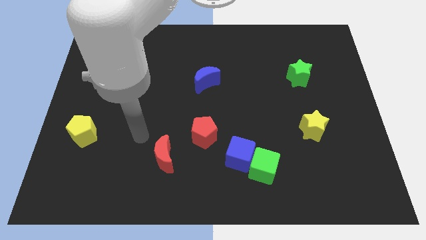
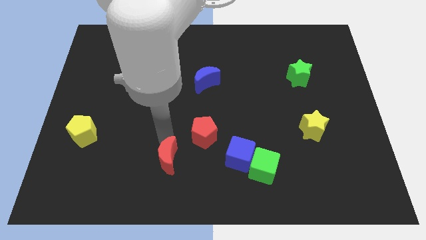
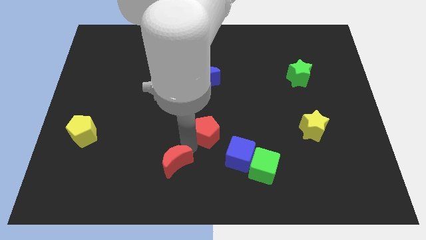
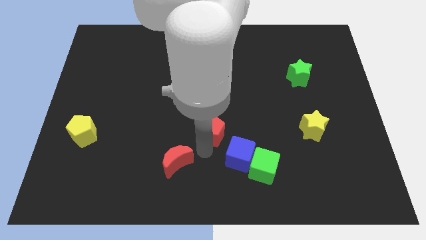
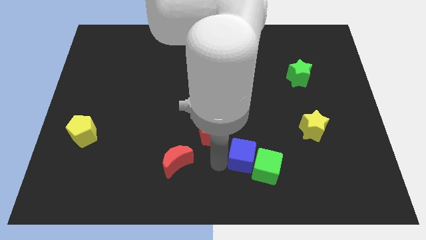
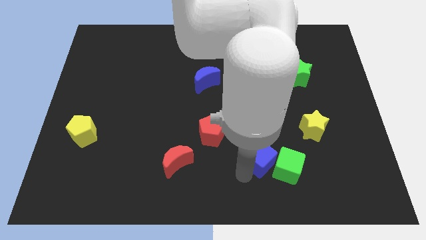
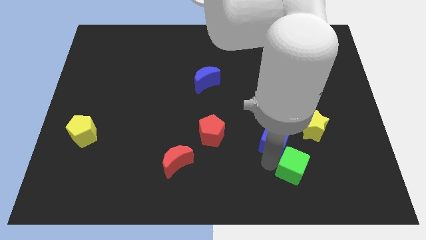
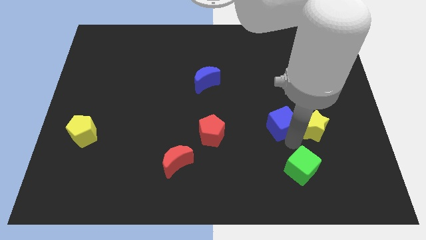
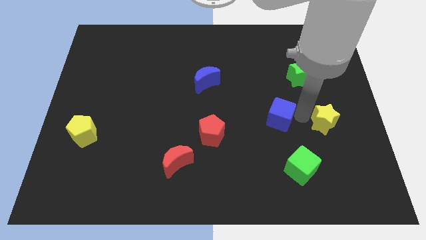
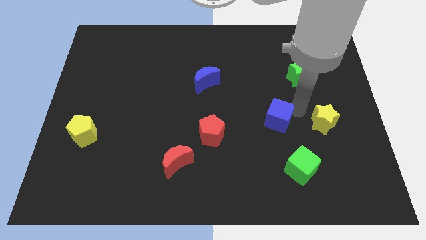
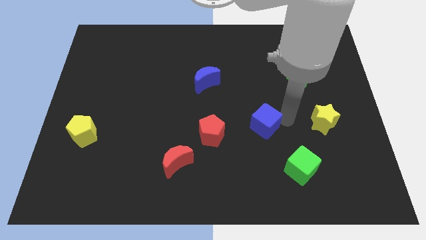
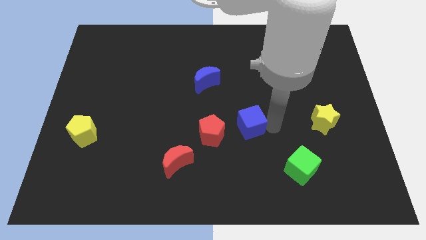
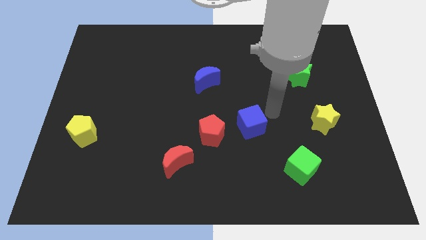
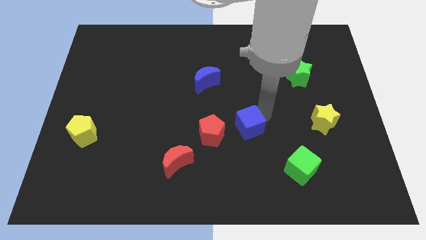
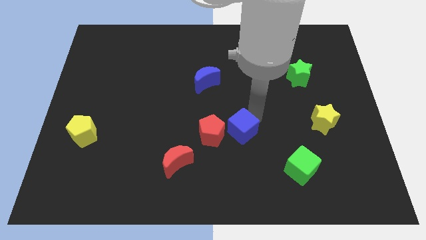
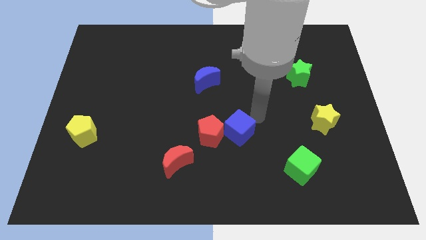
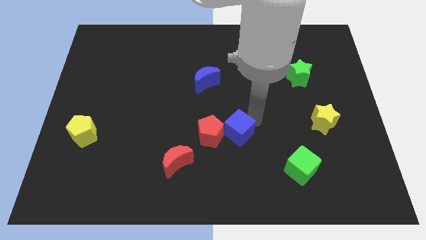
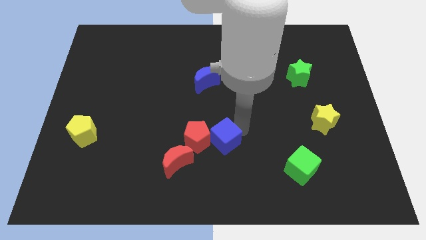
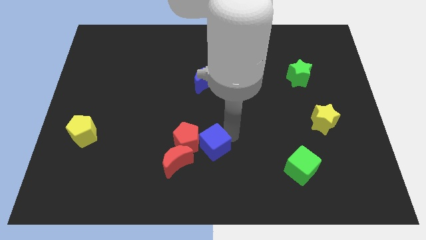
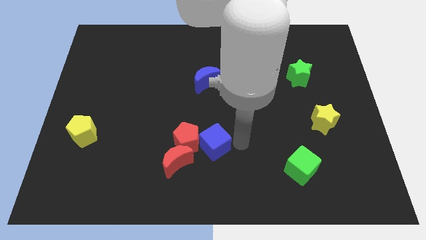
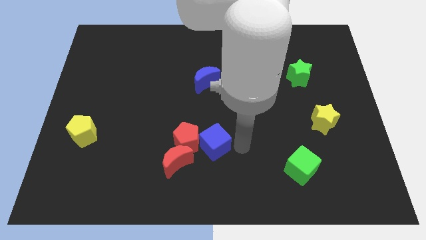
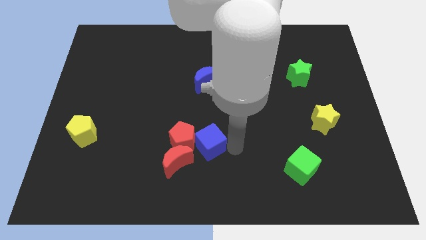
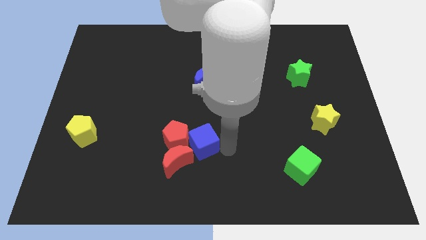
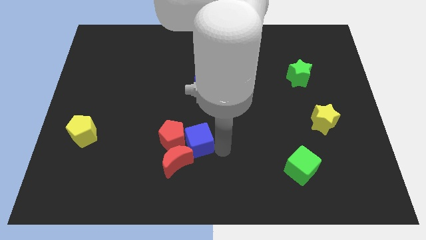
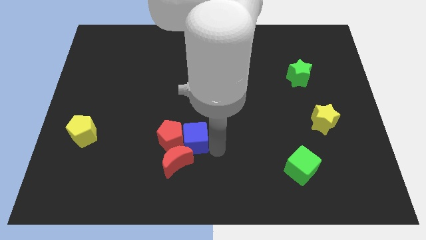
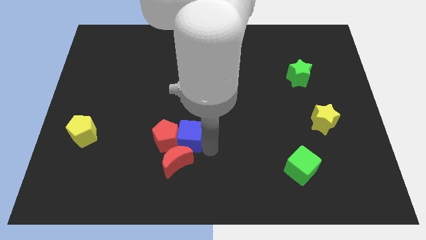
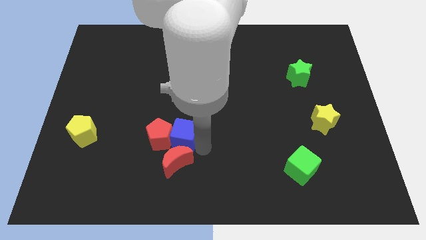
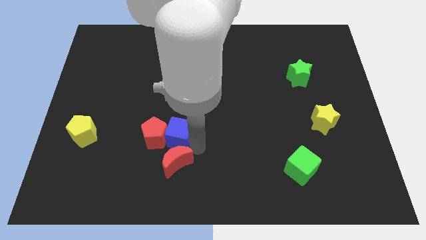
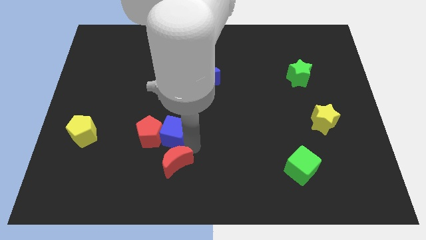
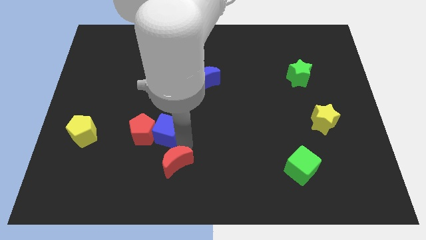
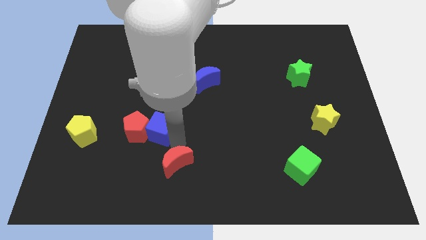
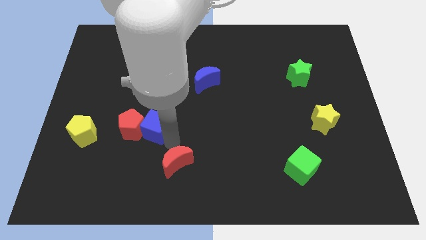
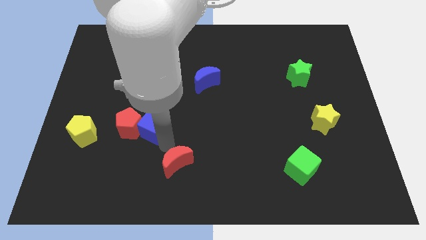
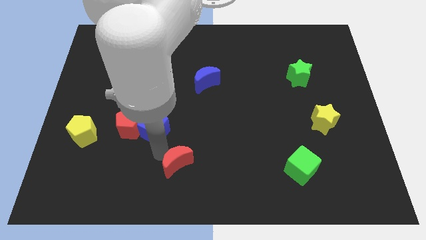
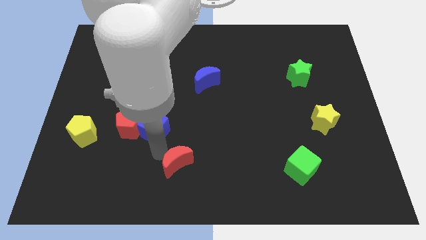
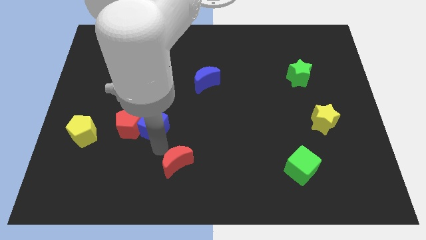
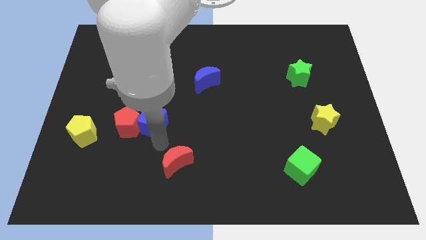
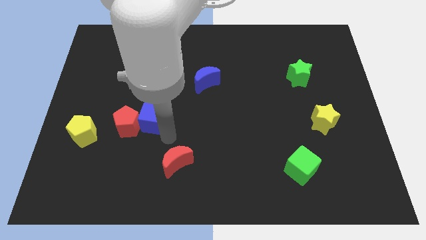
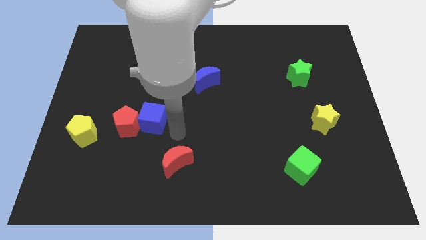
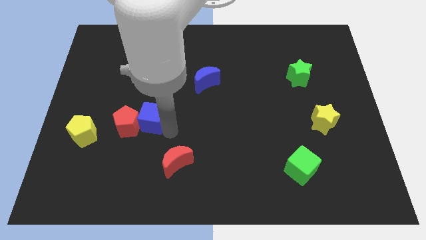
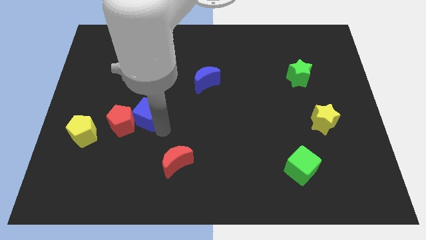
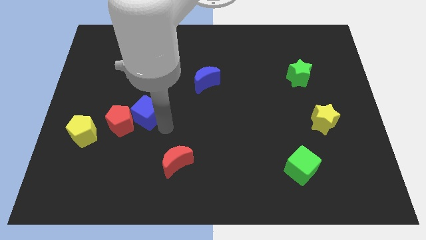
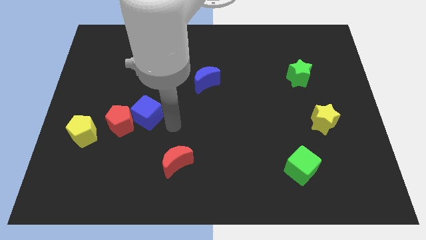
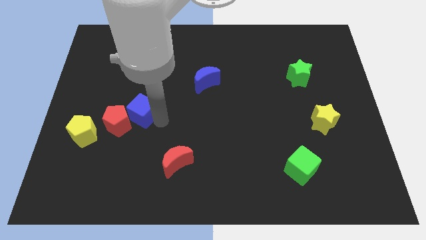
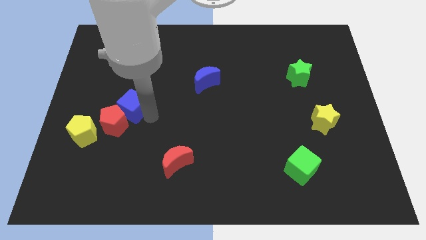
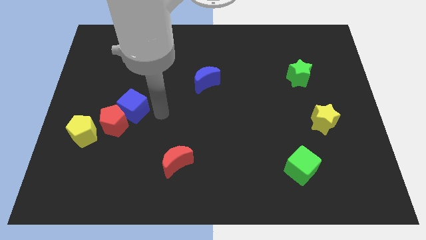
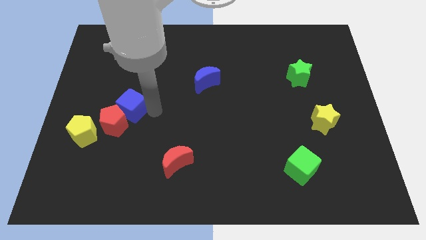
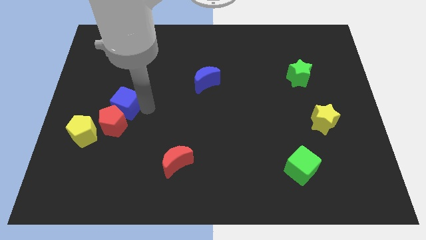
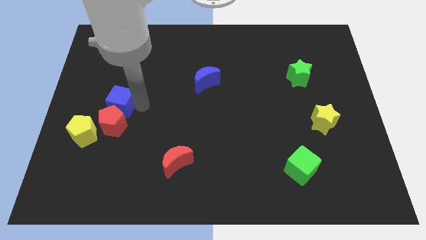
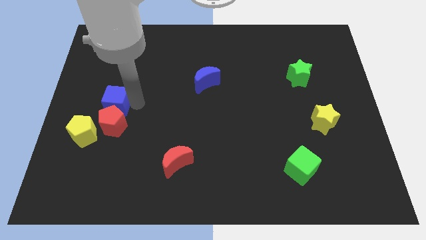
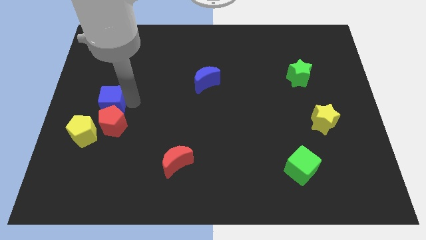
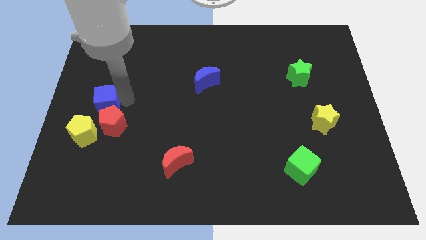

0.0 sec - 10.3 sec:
put the blue cube to the left side

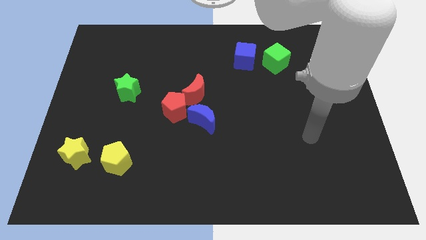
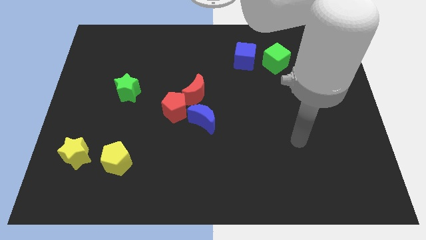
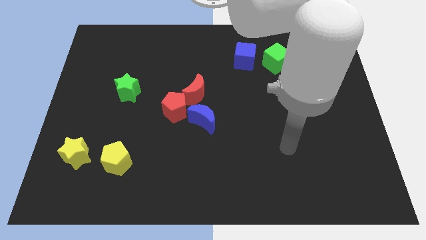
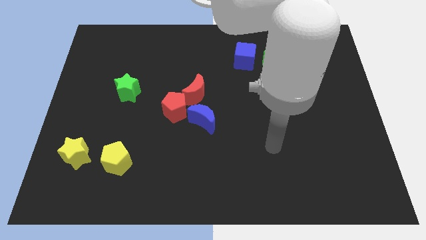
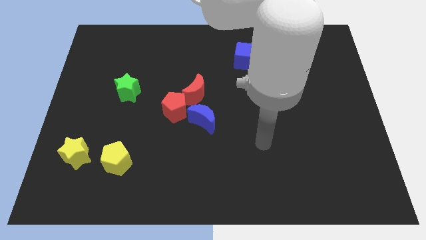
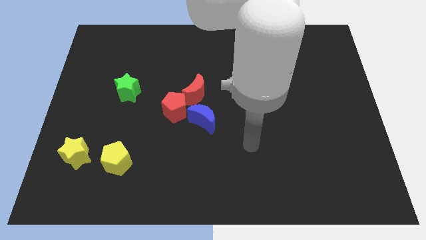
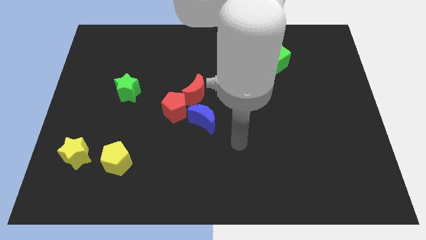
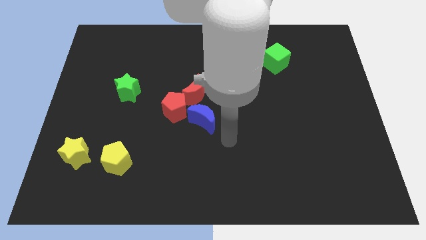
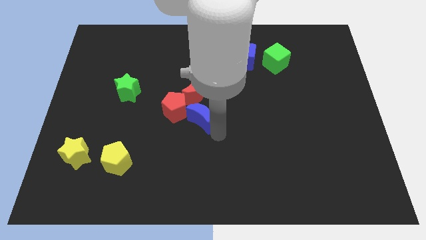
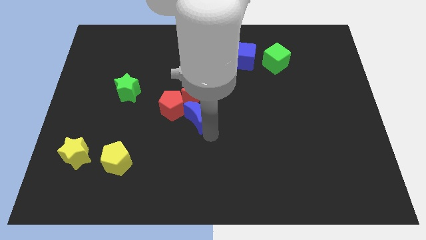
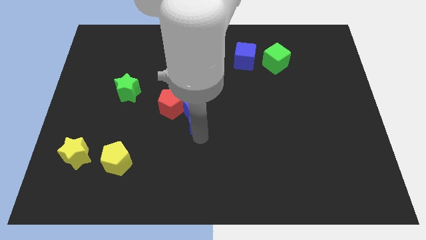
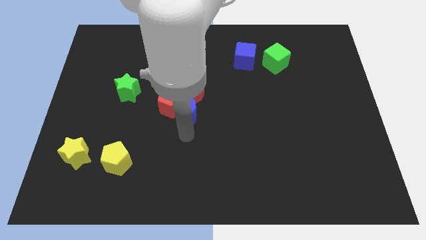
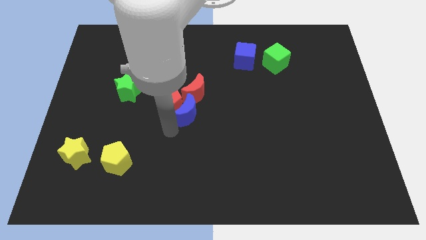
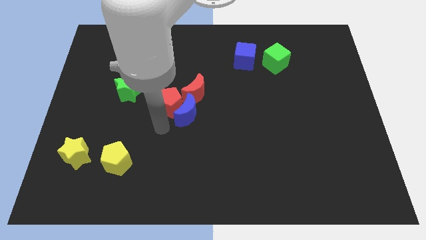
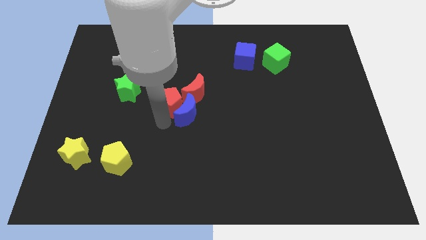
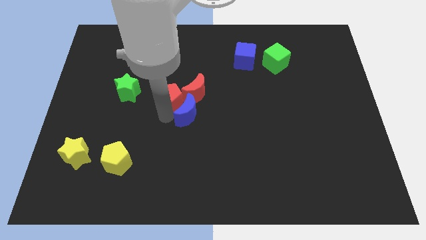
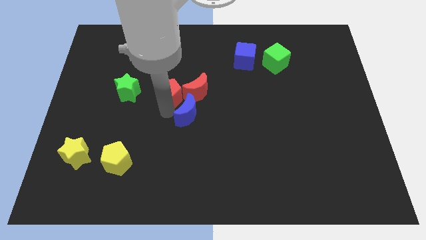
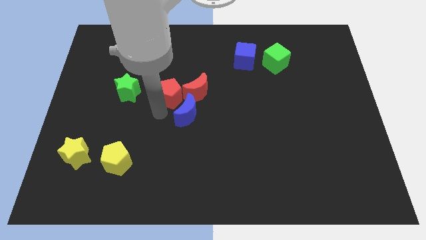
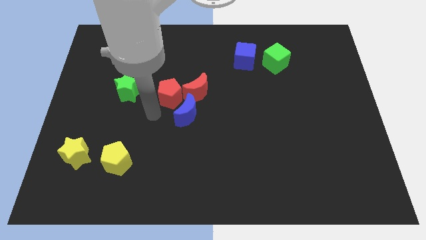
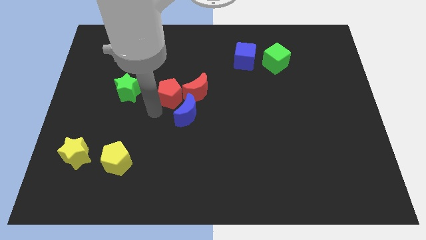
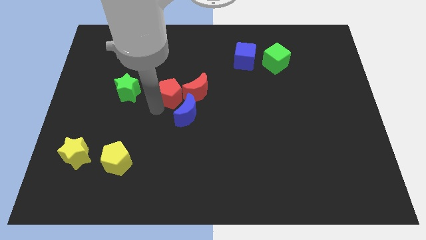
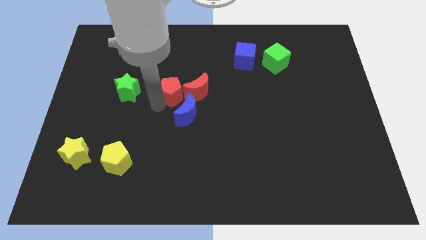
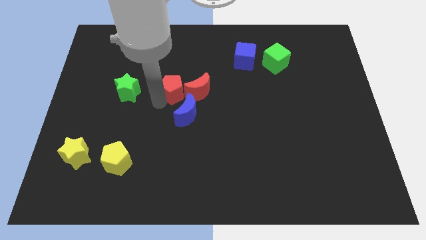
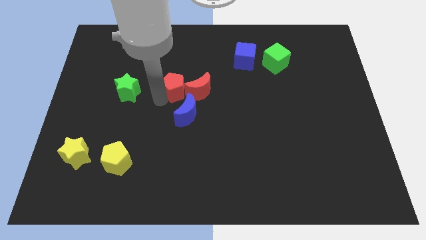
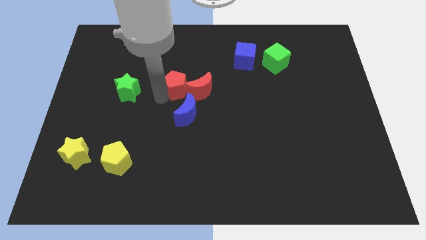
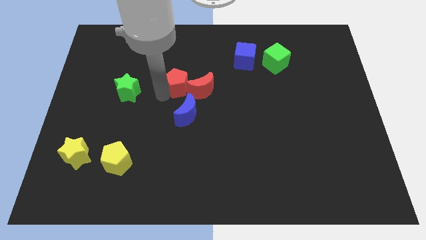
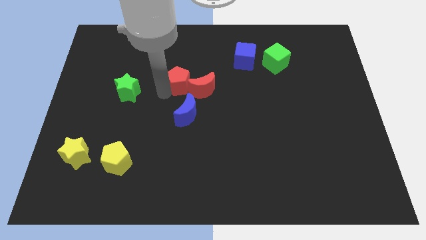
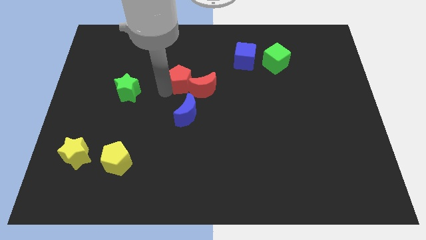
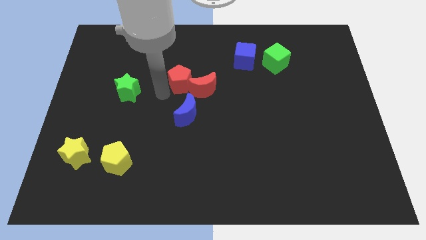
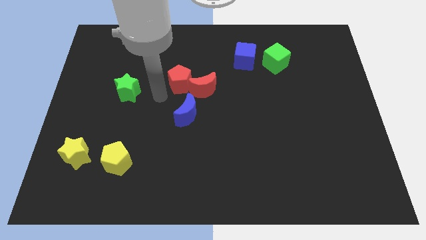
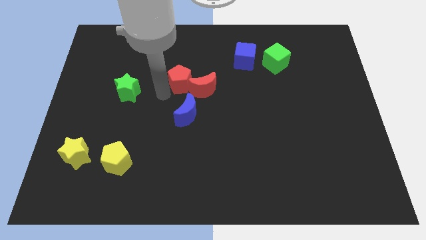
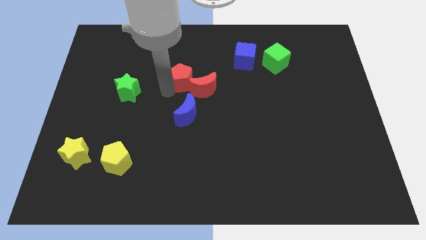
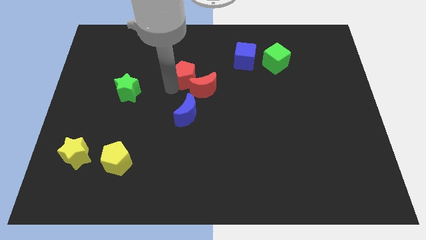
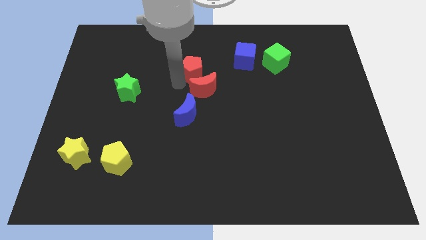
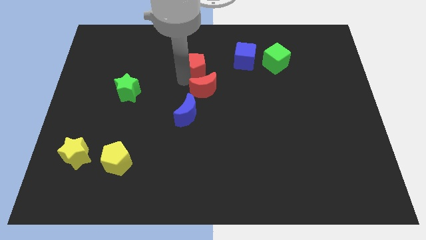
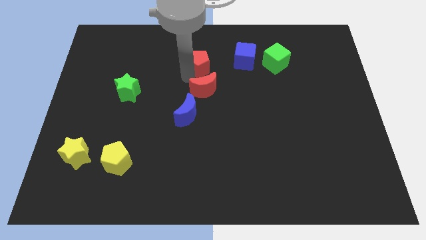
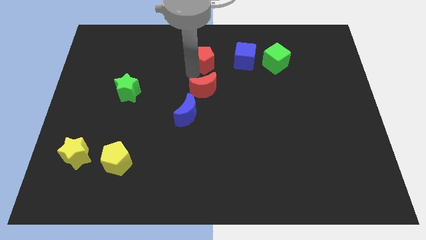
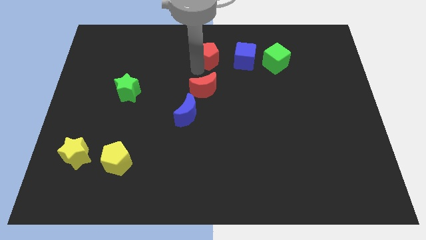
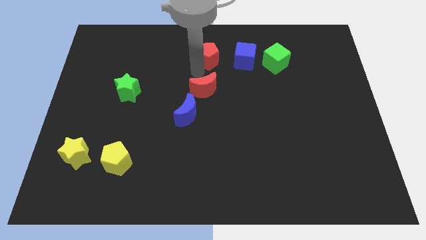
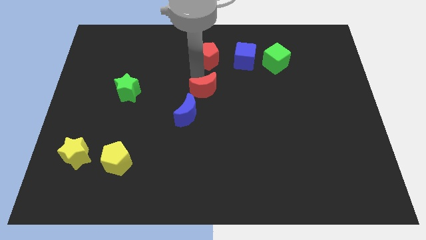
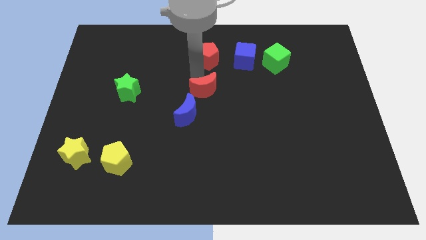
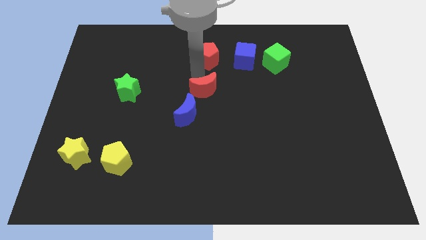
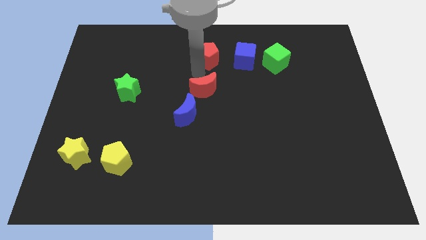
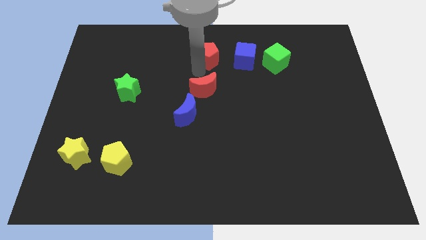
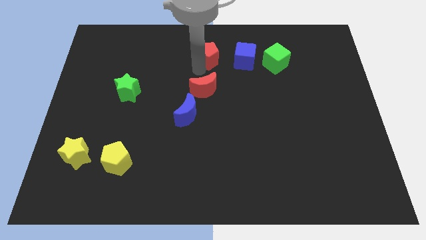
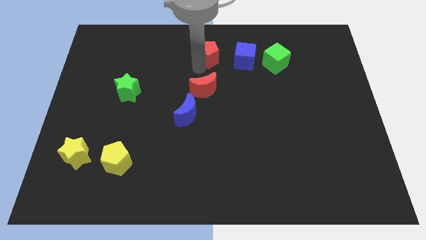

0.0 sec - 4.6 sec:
put the red pentagon to the top
